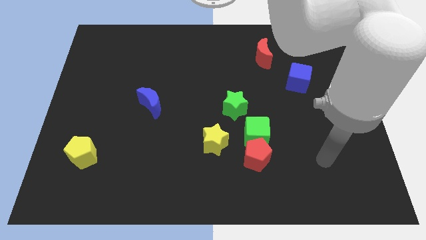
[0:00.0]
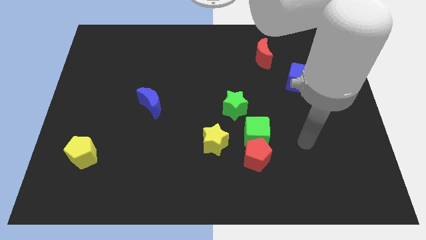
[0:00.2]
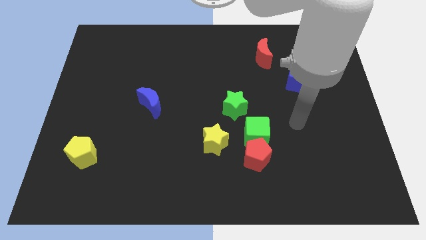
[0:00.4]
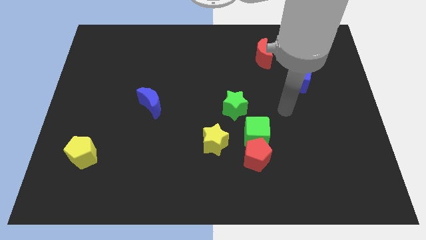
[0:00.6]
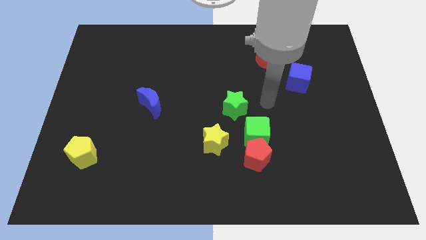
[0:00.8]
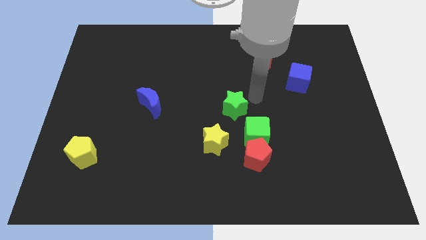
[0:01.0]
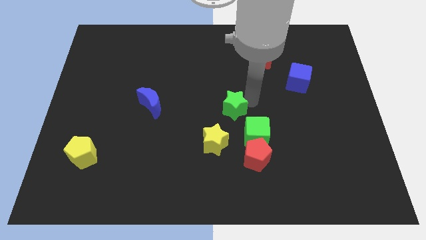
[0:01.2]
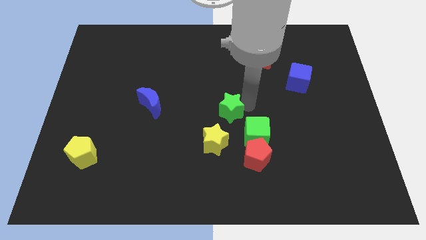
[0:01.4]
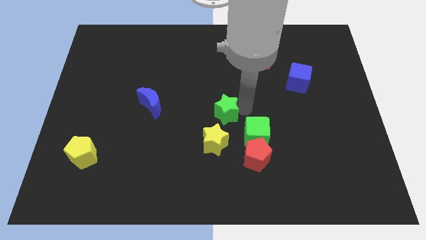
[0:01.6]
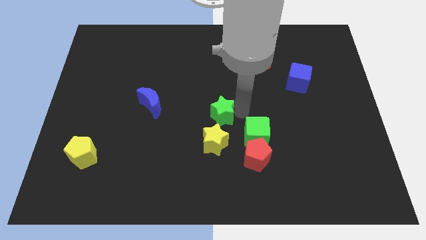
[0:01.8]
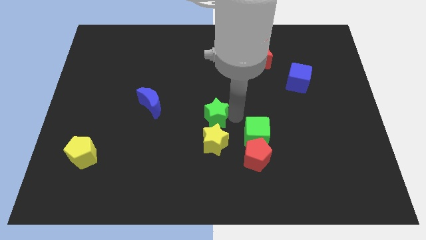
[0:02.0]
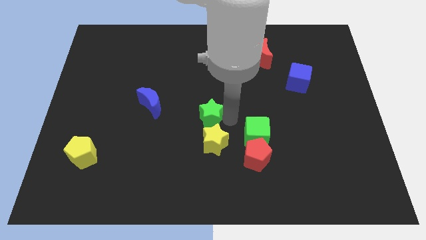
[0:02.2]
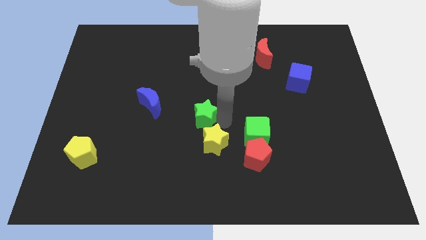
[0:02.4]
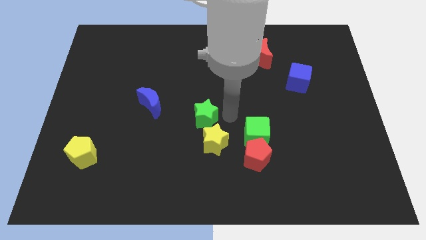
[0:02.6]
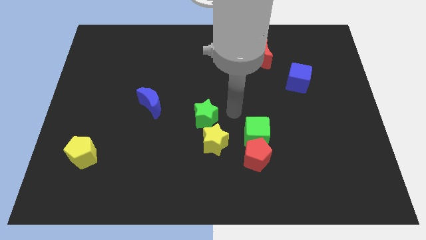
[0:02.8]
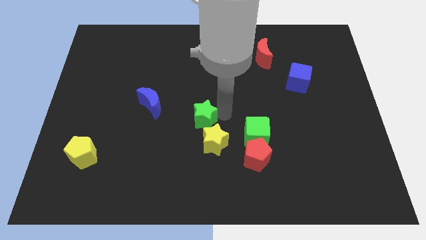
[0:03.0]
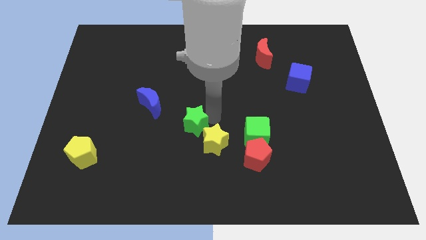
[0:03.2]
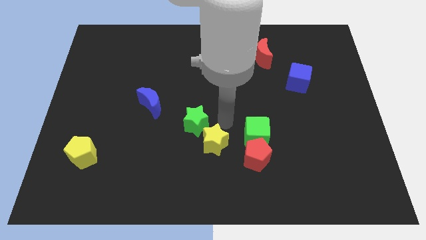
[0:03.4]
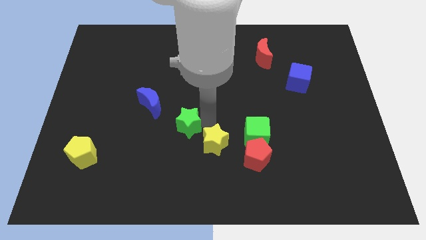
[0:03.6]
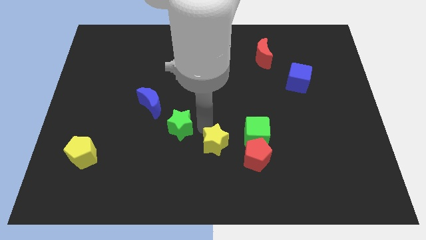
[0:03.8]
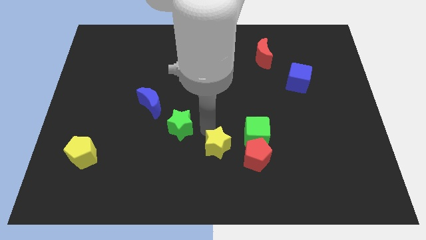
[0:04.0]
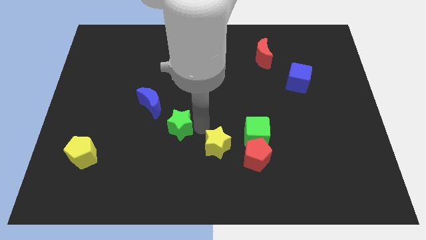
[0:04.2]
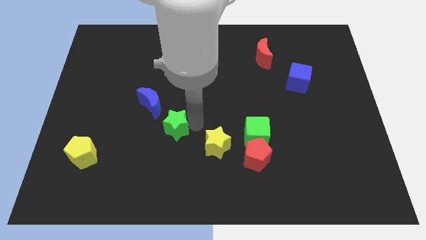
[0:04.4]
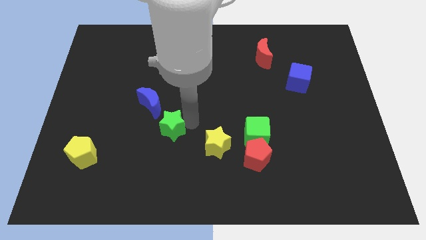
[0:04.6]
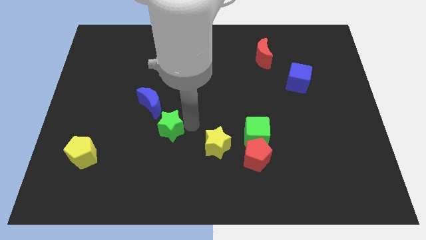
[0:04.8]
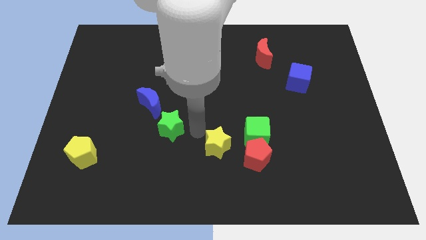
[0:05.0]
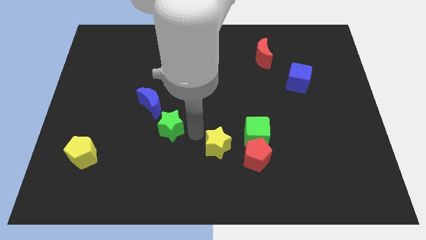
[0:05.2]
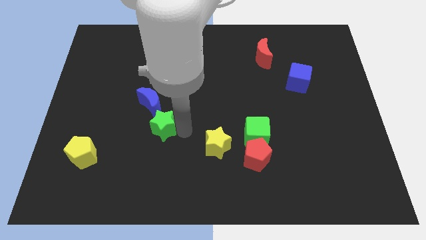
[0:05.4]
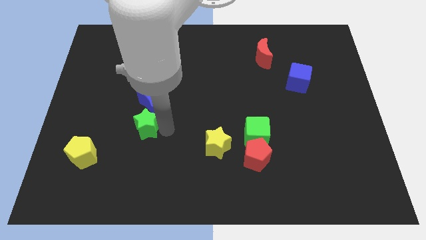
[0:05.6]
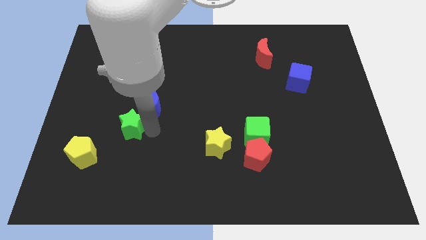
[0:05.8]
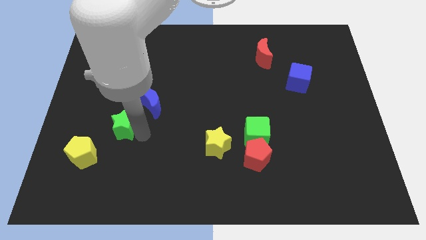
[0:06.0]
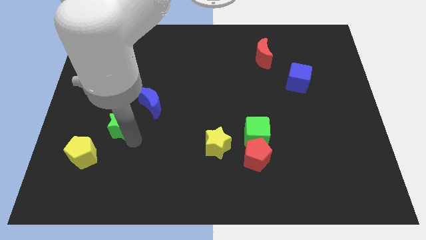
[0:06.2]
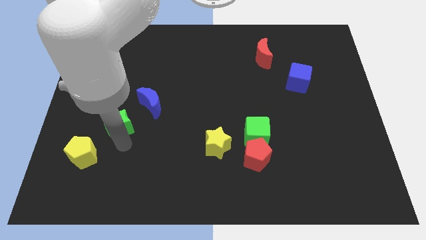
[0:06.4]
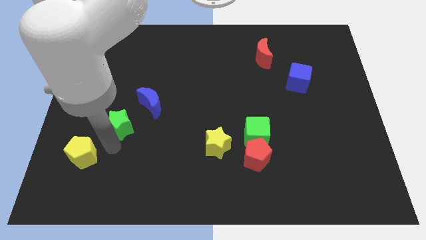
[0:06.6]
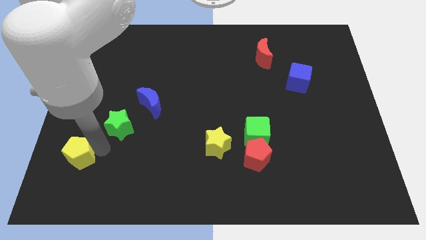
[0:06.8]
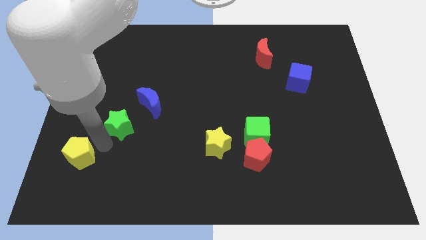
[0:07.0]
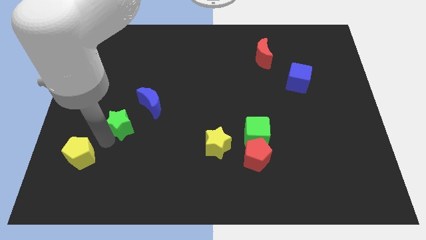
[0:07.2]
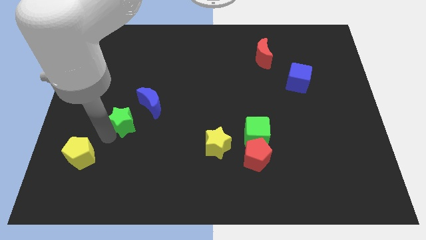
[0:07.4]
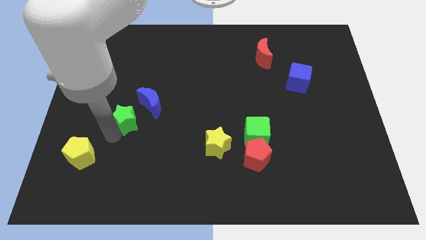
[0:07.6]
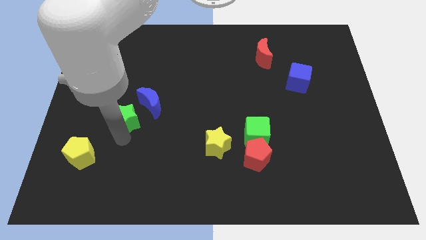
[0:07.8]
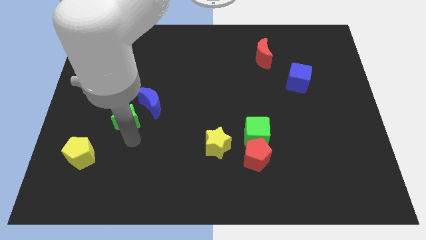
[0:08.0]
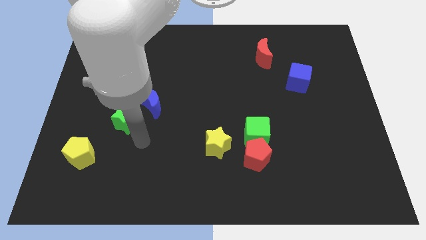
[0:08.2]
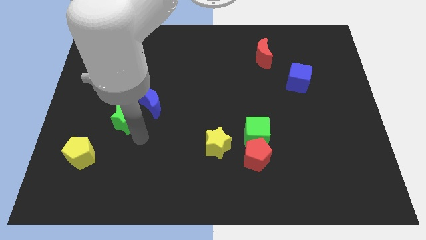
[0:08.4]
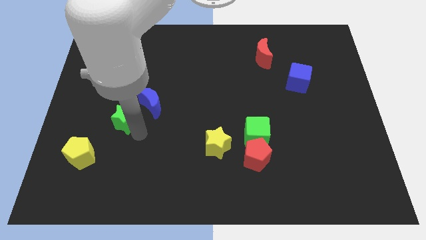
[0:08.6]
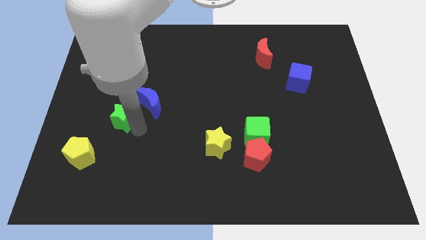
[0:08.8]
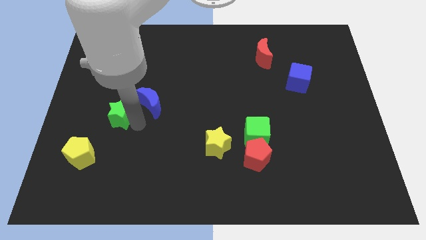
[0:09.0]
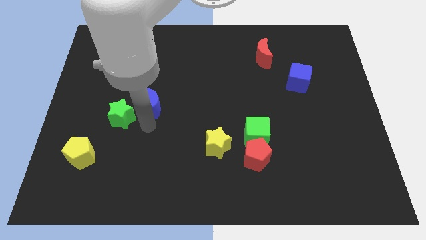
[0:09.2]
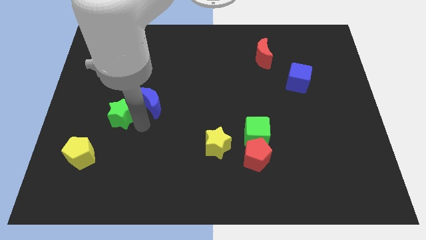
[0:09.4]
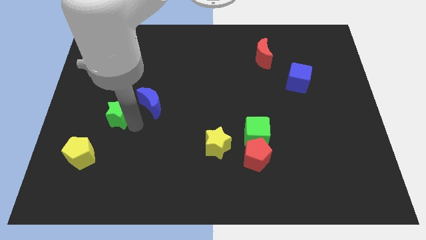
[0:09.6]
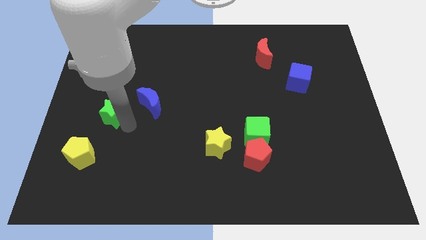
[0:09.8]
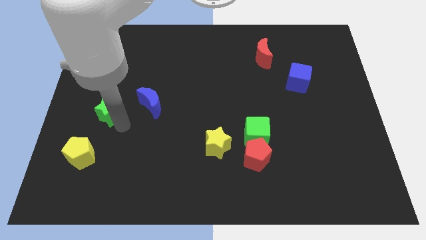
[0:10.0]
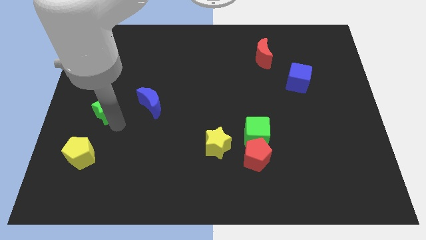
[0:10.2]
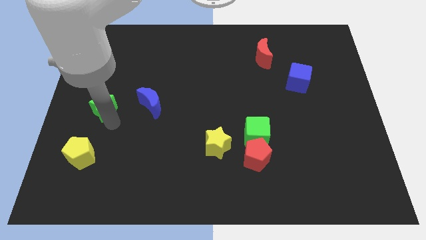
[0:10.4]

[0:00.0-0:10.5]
slide the green star to the center left

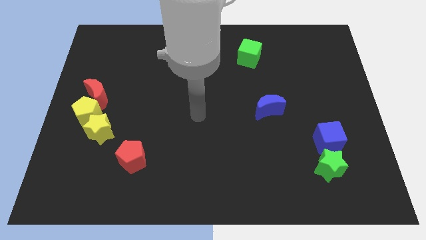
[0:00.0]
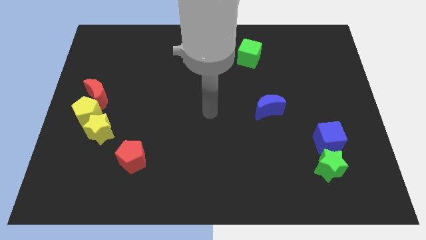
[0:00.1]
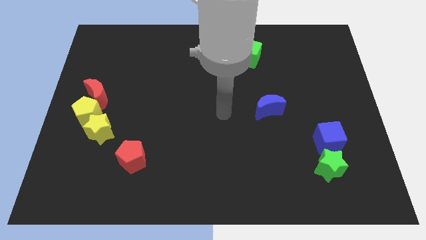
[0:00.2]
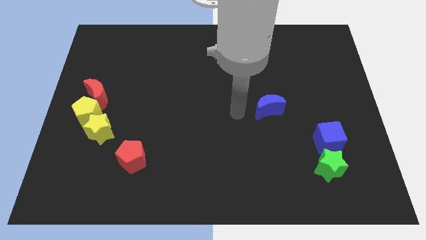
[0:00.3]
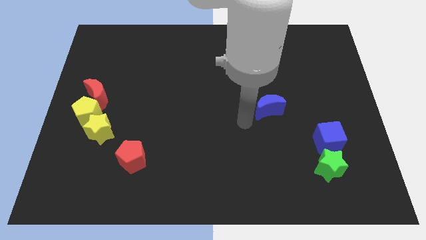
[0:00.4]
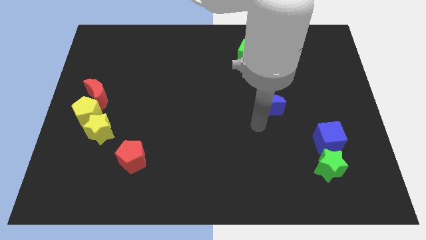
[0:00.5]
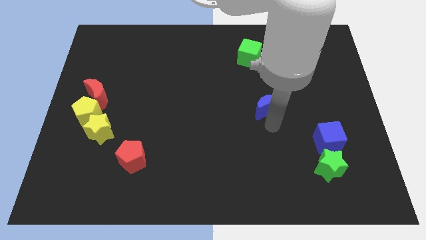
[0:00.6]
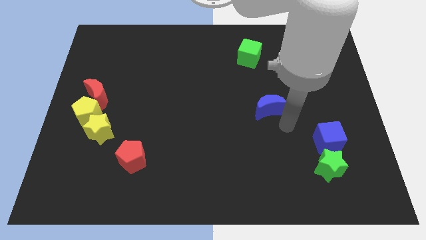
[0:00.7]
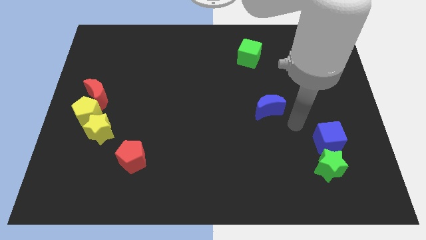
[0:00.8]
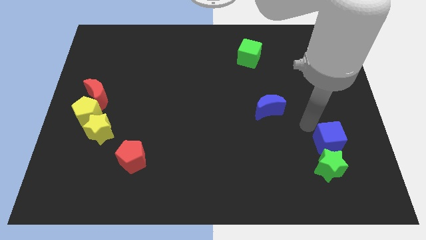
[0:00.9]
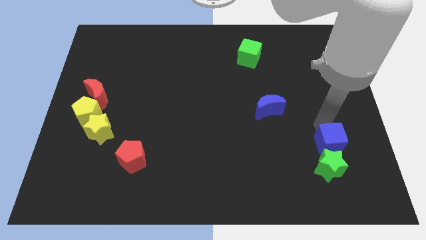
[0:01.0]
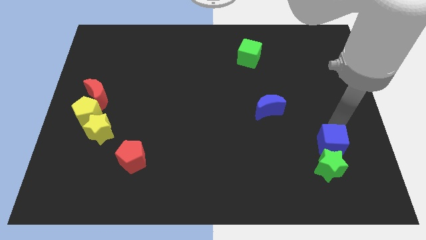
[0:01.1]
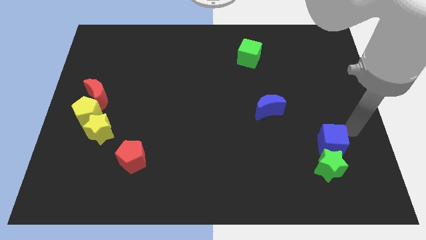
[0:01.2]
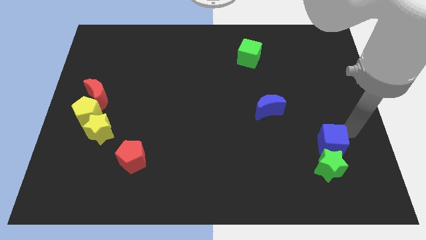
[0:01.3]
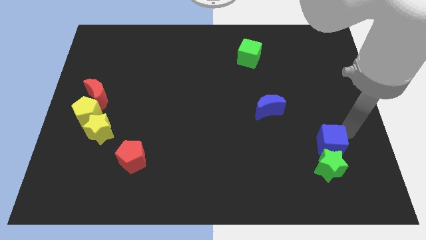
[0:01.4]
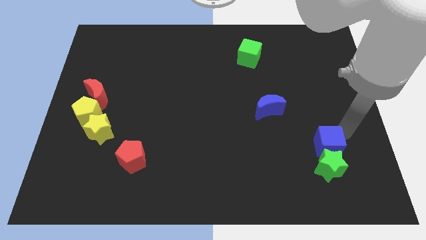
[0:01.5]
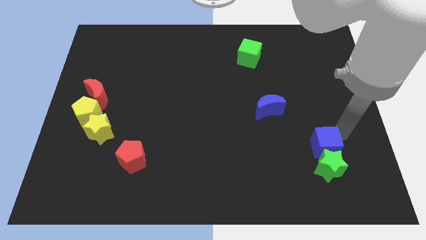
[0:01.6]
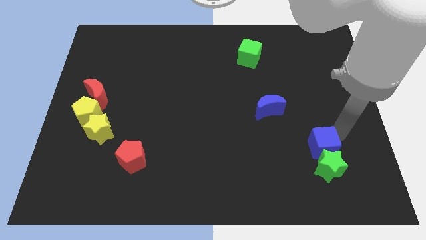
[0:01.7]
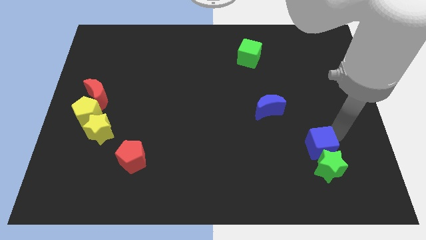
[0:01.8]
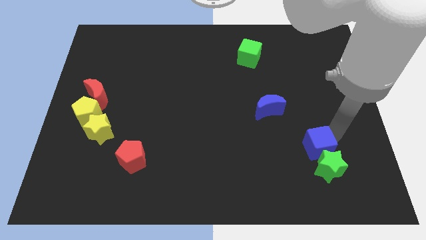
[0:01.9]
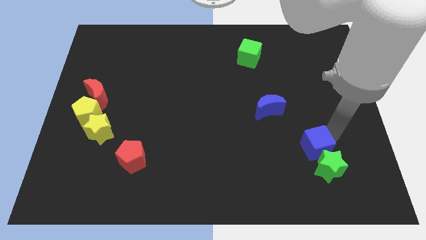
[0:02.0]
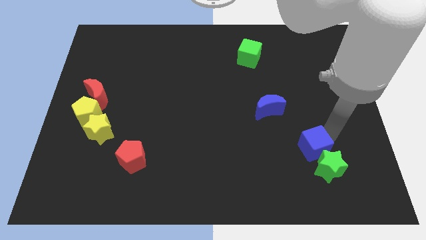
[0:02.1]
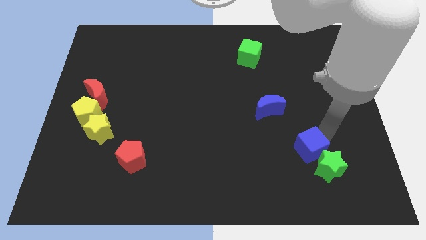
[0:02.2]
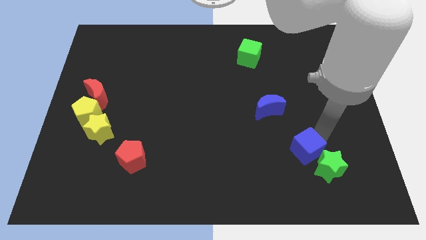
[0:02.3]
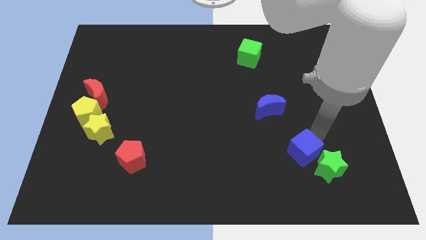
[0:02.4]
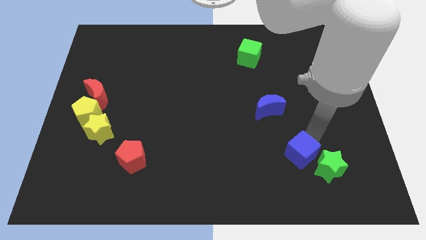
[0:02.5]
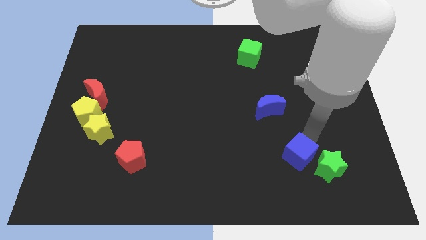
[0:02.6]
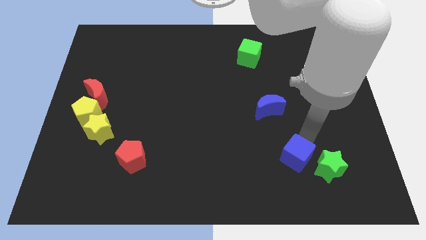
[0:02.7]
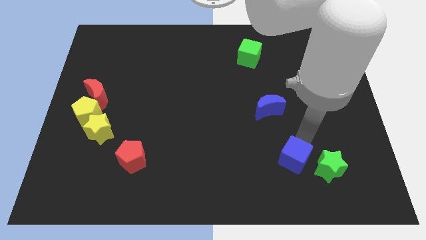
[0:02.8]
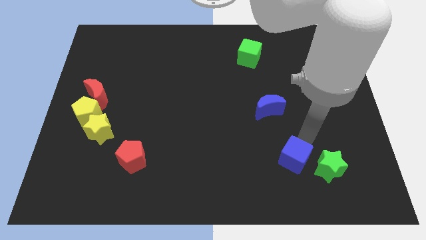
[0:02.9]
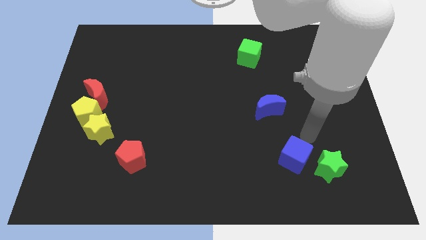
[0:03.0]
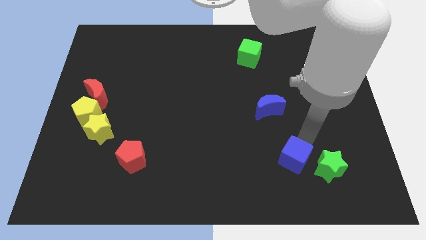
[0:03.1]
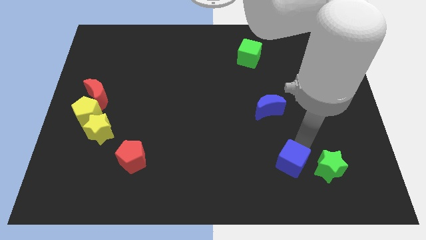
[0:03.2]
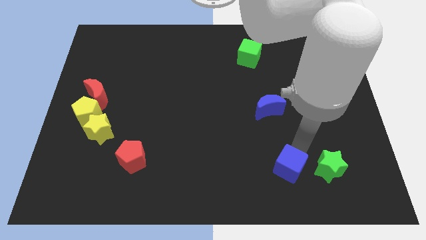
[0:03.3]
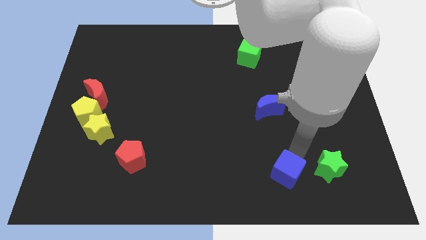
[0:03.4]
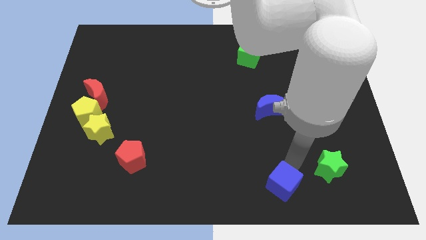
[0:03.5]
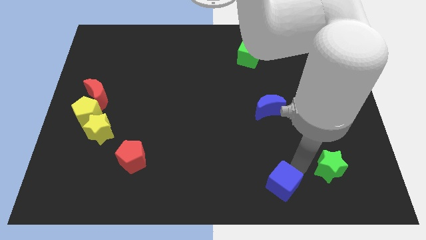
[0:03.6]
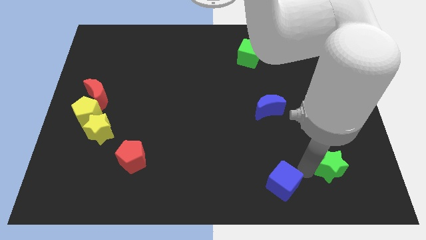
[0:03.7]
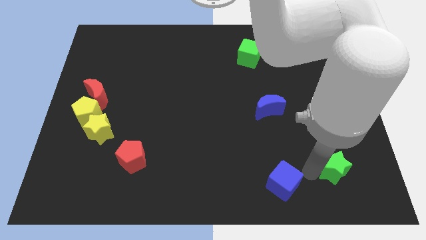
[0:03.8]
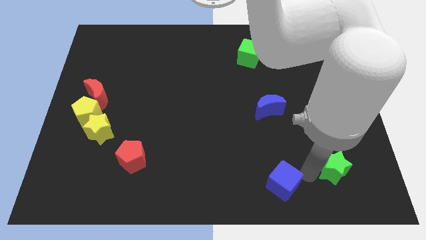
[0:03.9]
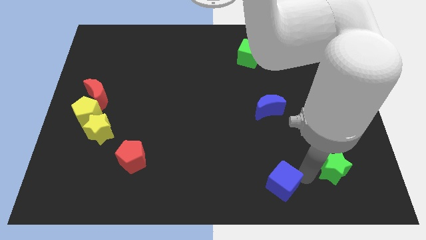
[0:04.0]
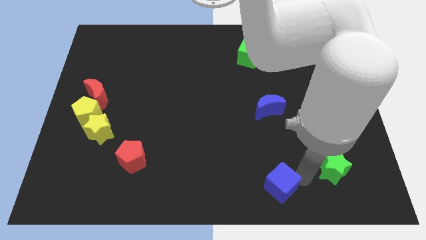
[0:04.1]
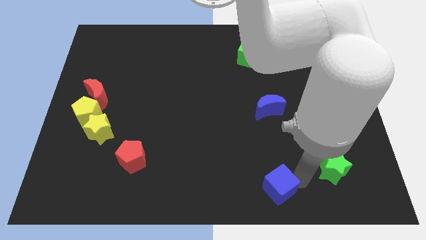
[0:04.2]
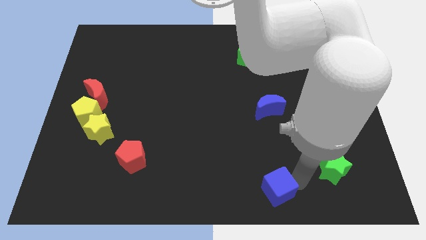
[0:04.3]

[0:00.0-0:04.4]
move the blue cube to the bottom
